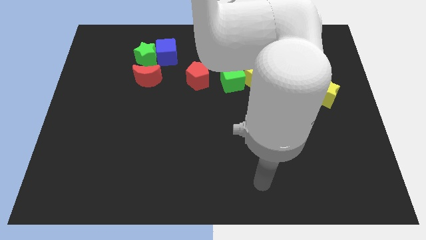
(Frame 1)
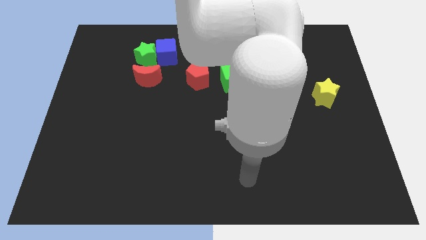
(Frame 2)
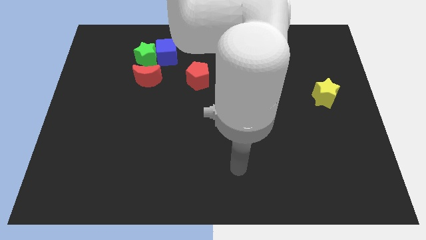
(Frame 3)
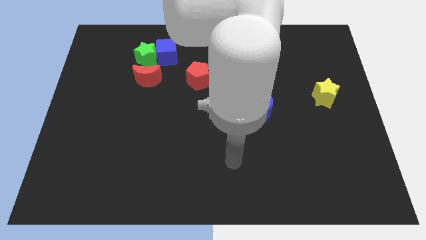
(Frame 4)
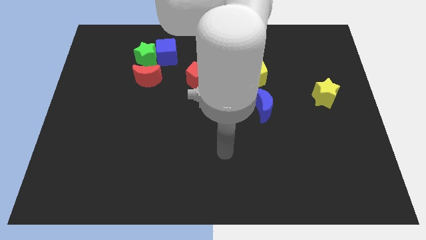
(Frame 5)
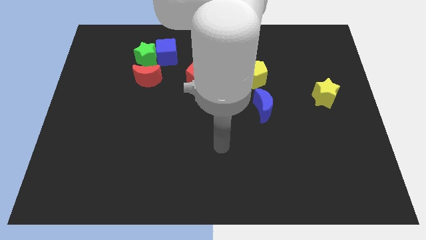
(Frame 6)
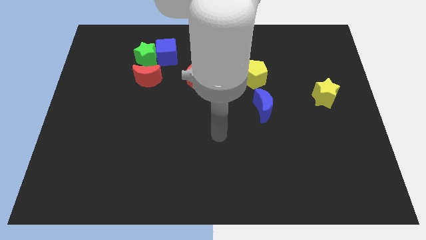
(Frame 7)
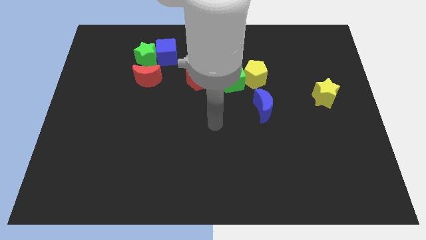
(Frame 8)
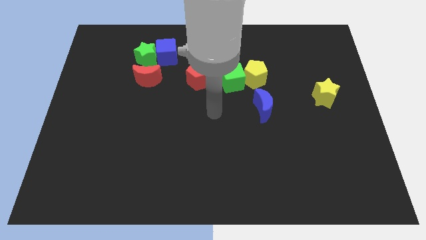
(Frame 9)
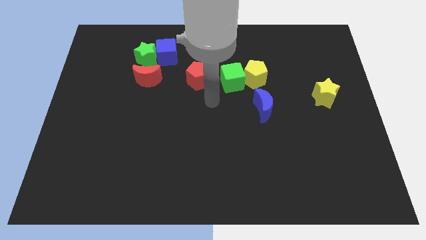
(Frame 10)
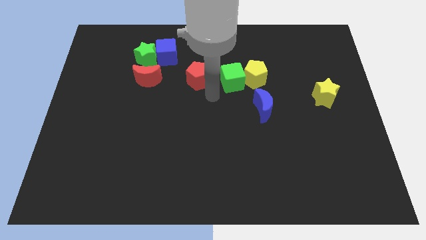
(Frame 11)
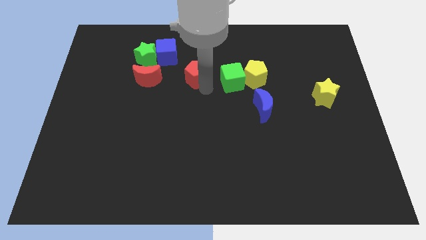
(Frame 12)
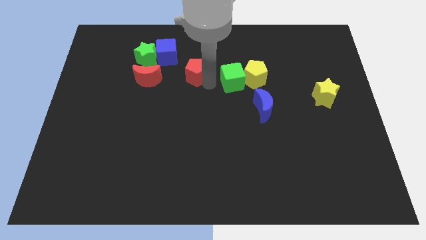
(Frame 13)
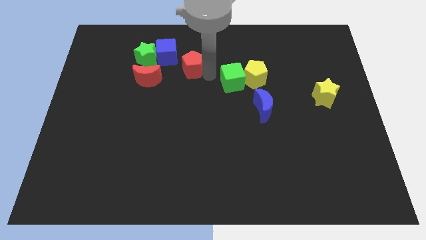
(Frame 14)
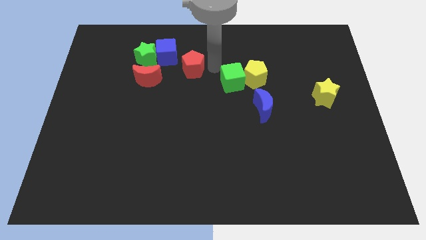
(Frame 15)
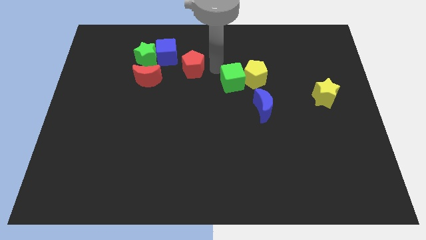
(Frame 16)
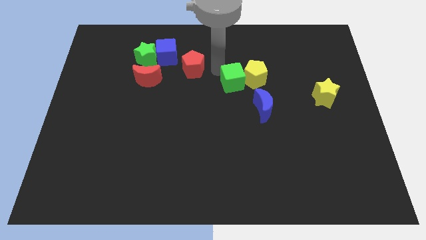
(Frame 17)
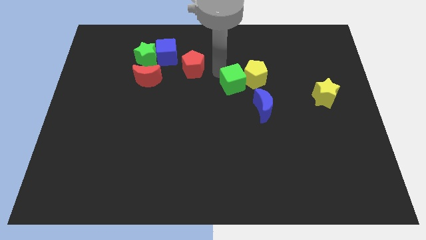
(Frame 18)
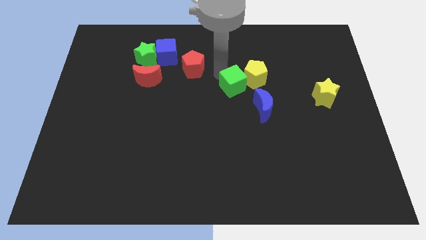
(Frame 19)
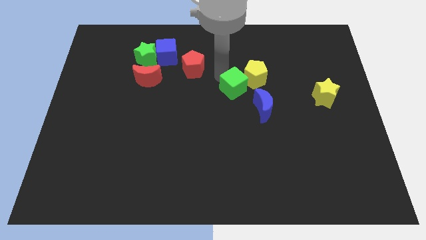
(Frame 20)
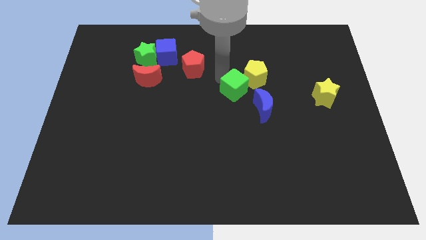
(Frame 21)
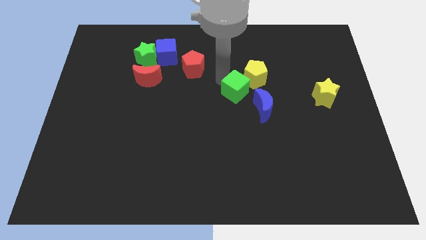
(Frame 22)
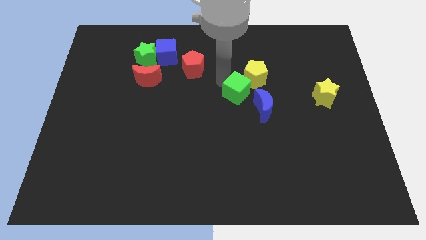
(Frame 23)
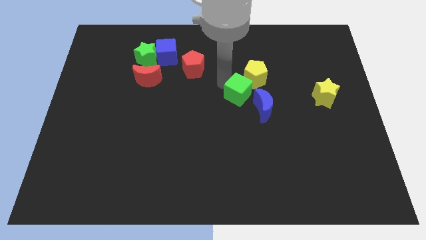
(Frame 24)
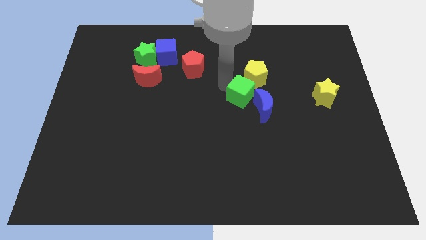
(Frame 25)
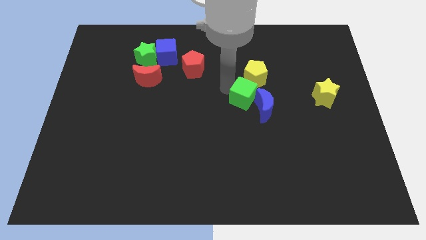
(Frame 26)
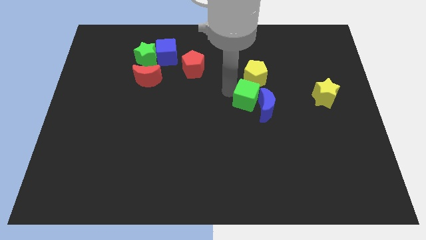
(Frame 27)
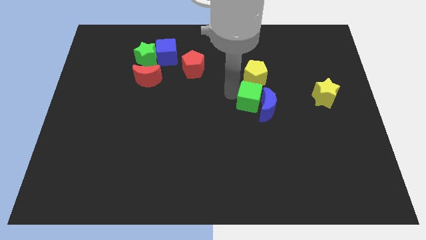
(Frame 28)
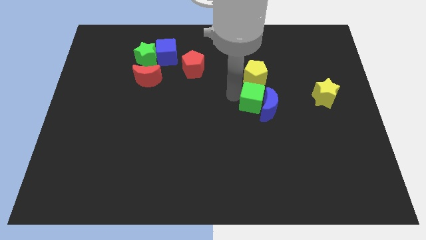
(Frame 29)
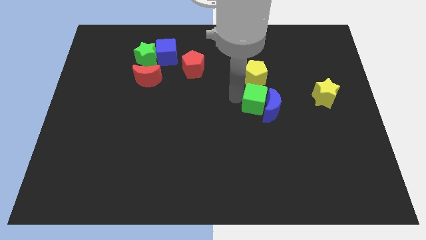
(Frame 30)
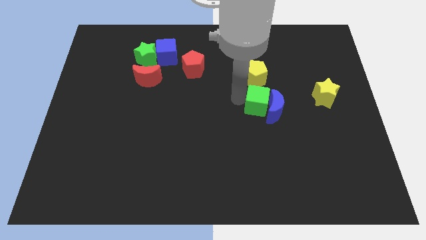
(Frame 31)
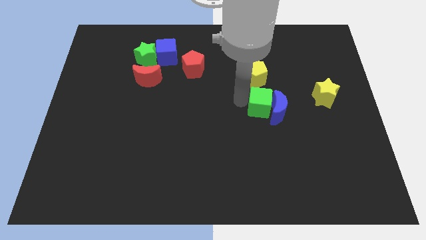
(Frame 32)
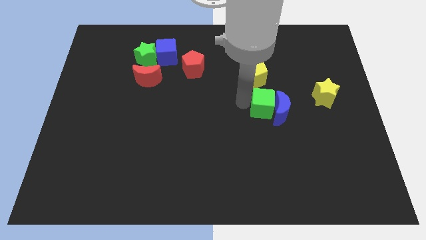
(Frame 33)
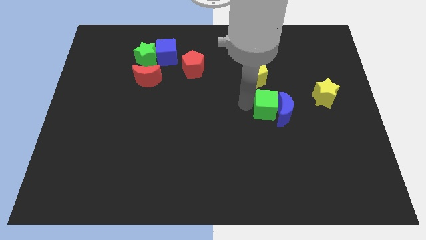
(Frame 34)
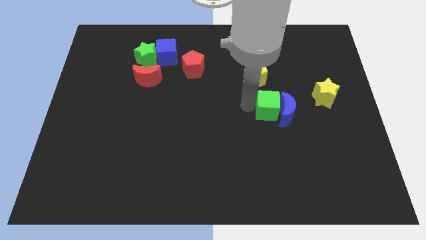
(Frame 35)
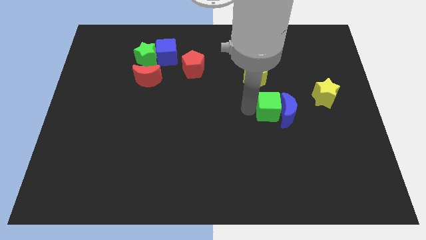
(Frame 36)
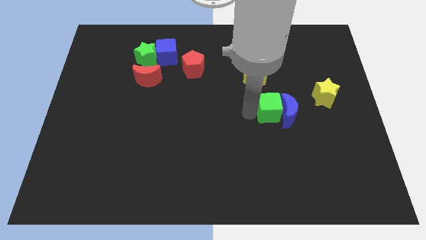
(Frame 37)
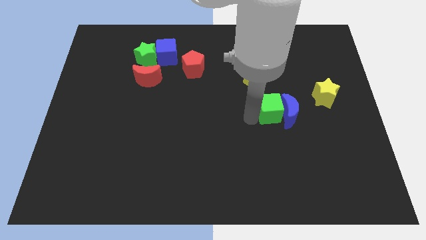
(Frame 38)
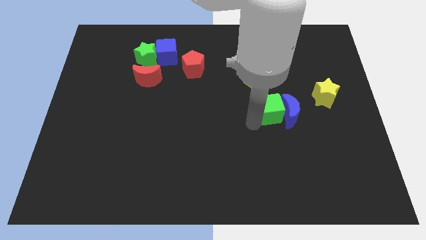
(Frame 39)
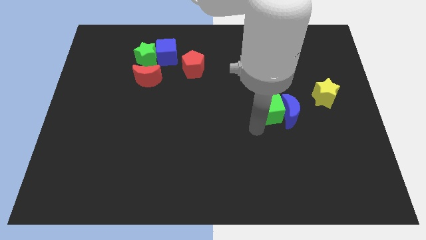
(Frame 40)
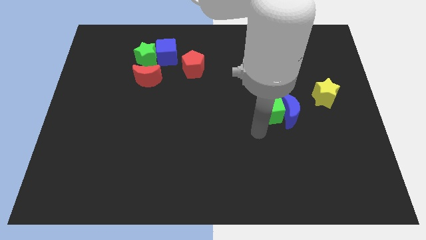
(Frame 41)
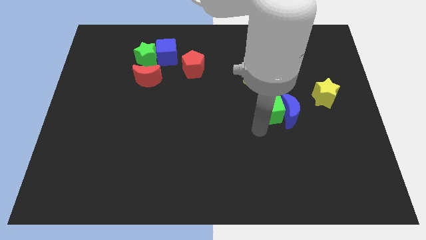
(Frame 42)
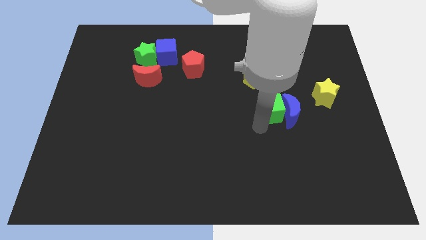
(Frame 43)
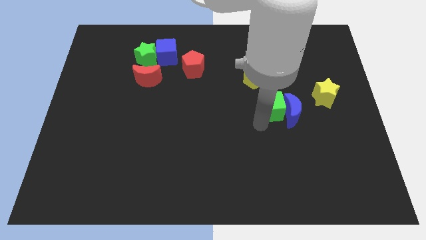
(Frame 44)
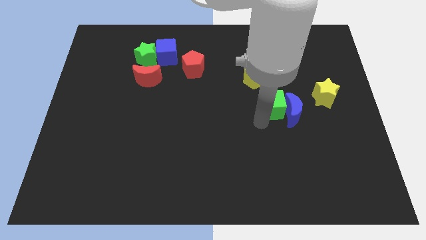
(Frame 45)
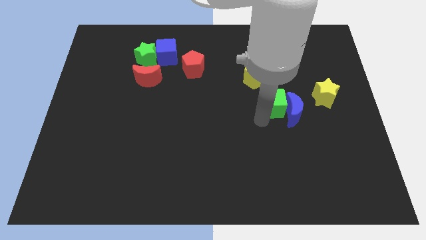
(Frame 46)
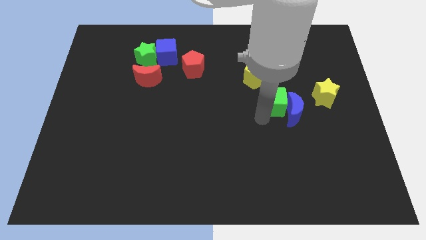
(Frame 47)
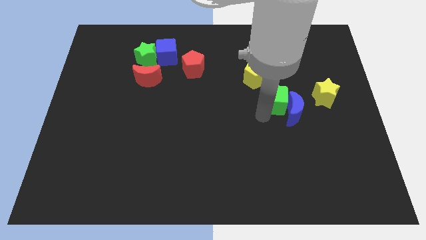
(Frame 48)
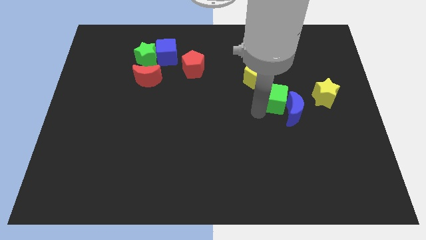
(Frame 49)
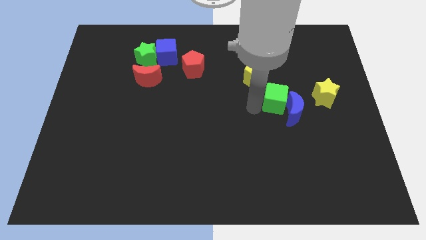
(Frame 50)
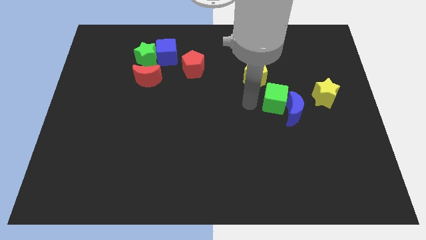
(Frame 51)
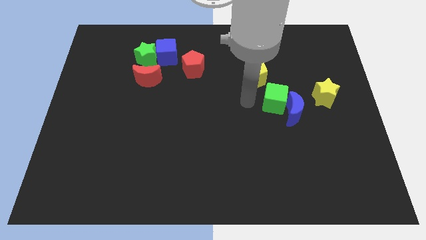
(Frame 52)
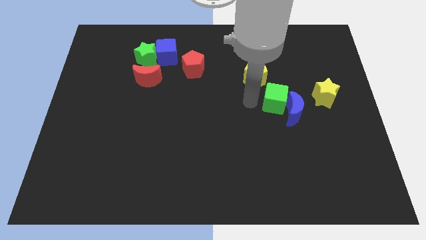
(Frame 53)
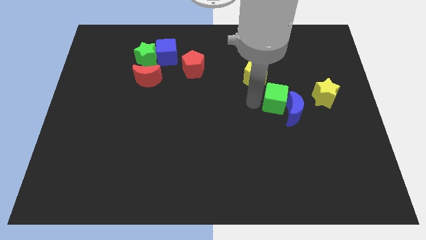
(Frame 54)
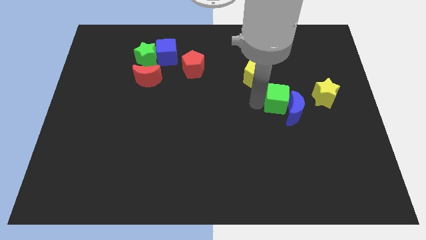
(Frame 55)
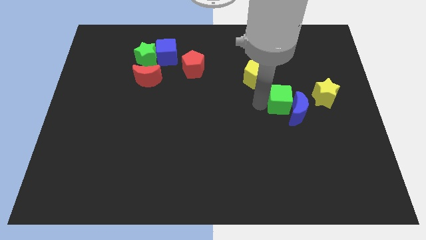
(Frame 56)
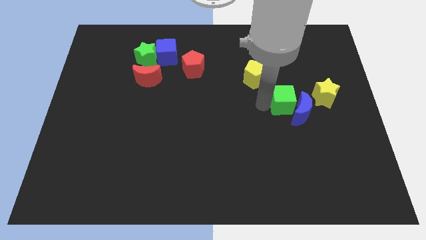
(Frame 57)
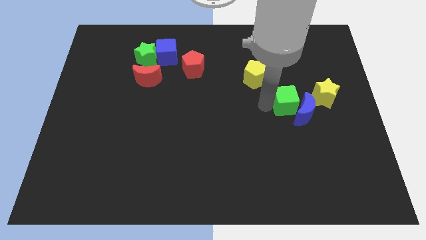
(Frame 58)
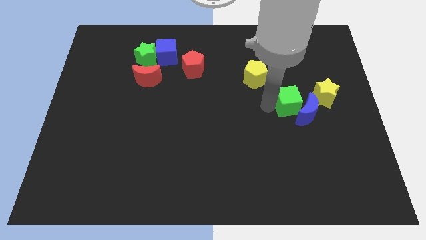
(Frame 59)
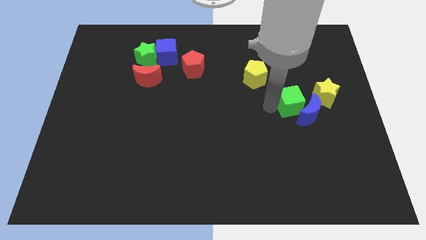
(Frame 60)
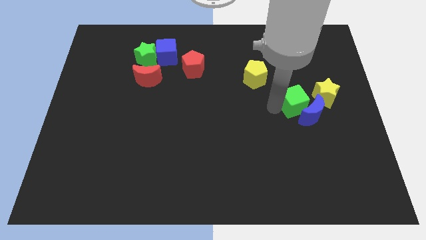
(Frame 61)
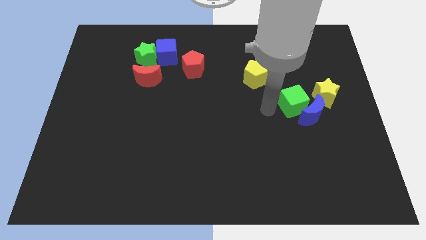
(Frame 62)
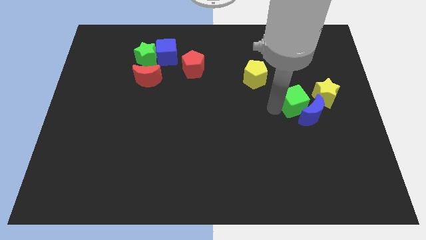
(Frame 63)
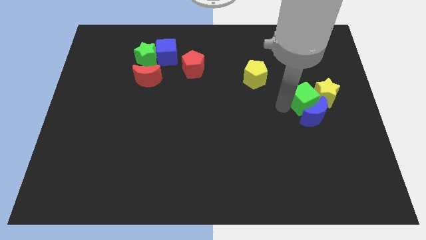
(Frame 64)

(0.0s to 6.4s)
move the green cube close to the yellow star

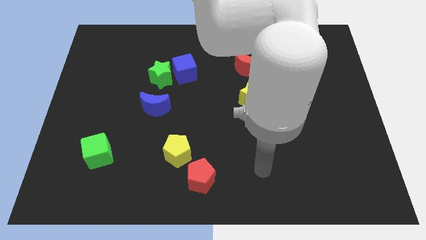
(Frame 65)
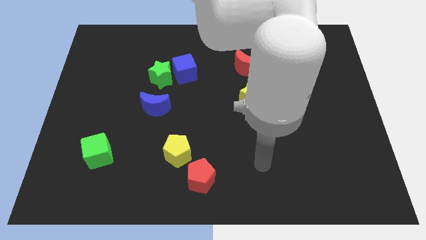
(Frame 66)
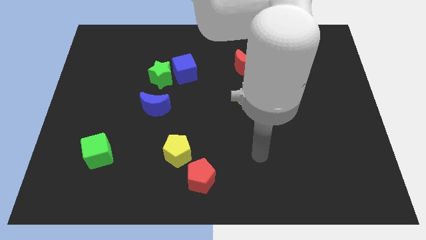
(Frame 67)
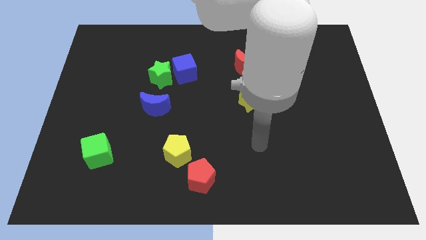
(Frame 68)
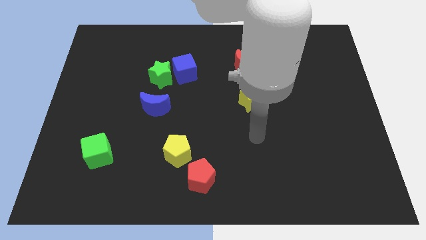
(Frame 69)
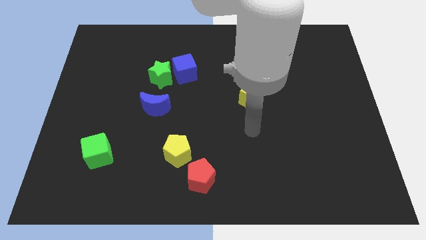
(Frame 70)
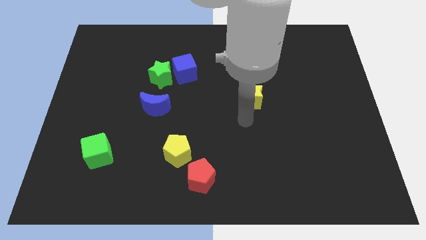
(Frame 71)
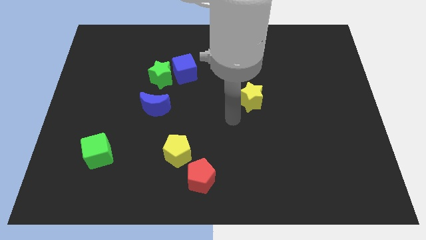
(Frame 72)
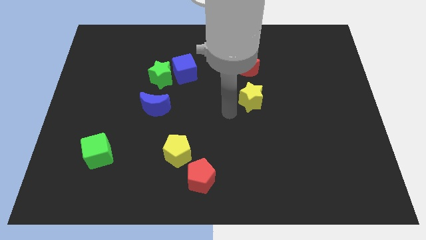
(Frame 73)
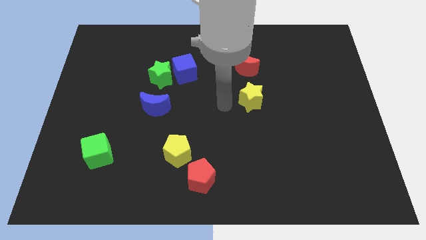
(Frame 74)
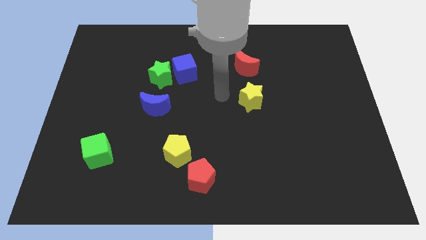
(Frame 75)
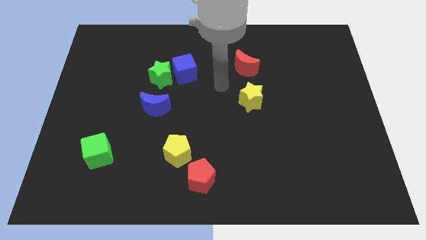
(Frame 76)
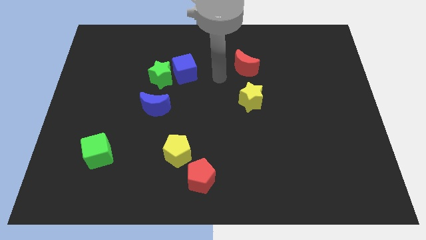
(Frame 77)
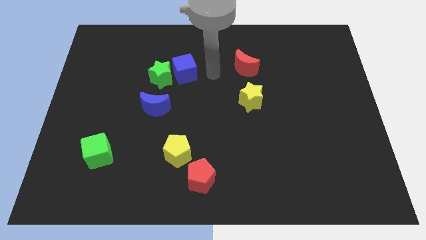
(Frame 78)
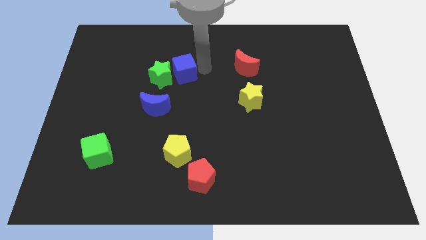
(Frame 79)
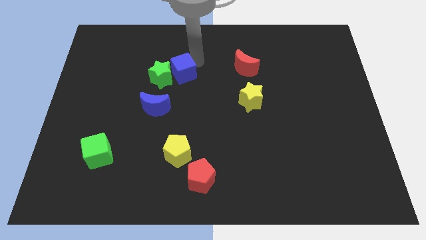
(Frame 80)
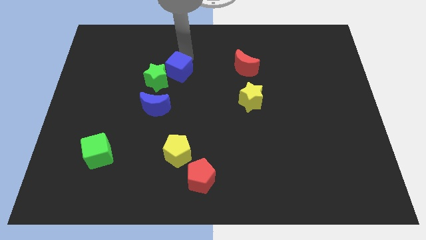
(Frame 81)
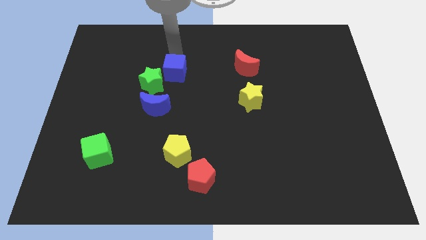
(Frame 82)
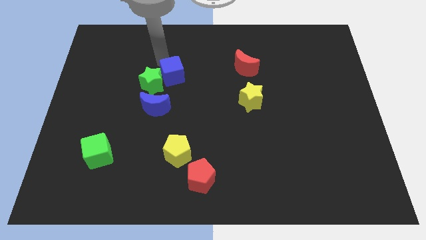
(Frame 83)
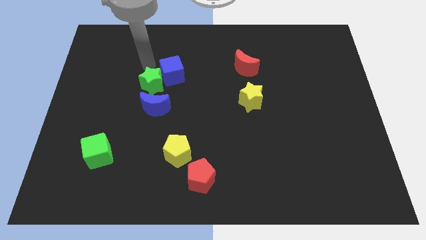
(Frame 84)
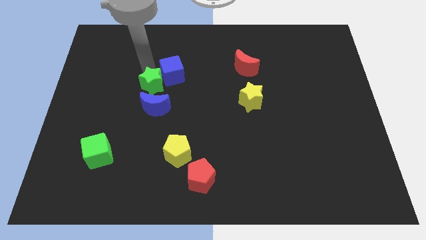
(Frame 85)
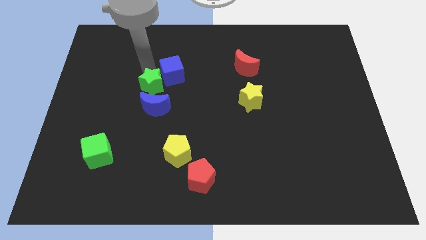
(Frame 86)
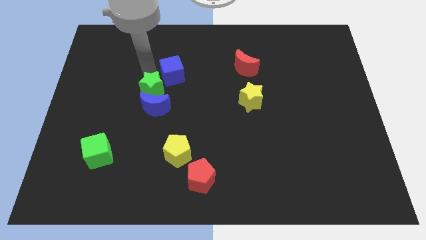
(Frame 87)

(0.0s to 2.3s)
slide the green star close to the blue moon
